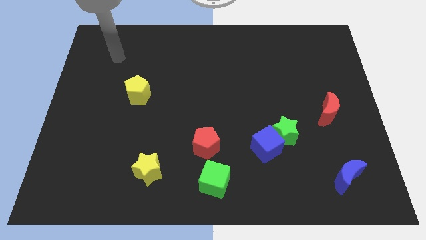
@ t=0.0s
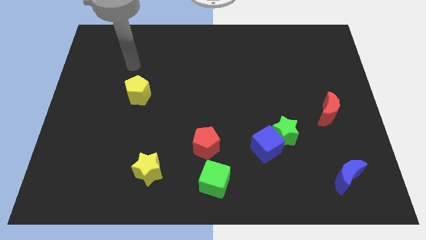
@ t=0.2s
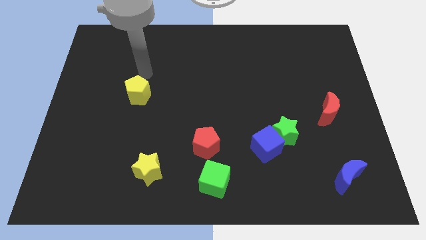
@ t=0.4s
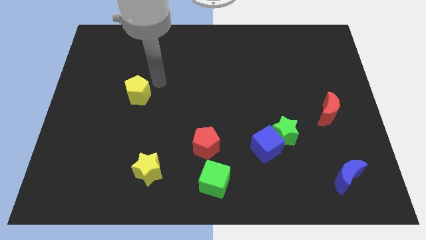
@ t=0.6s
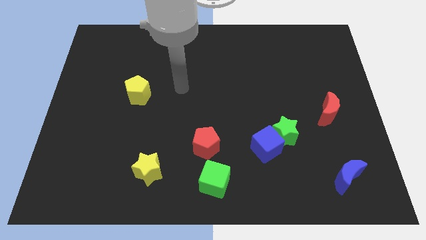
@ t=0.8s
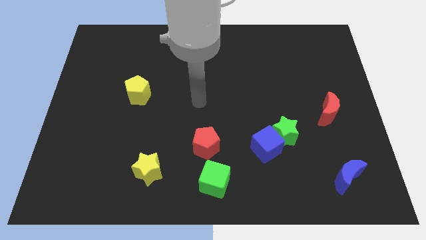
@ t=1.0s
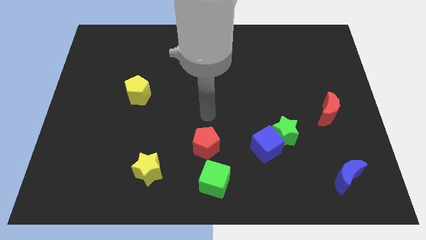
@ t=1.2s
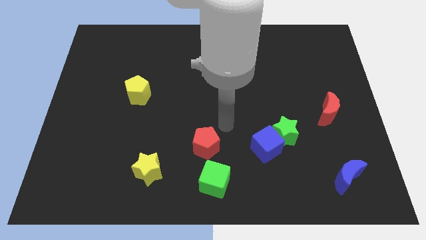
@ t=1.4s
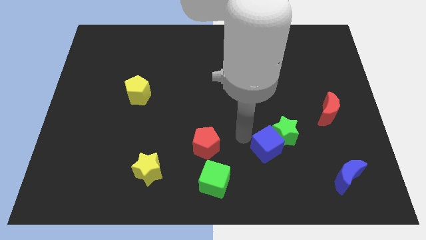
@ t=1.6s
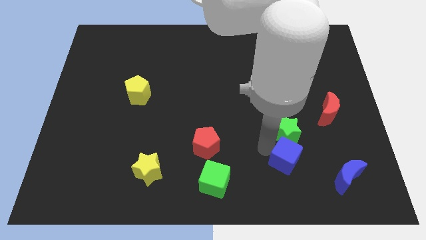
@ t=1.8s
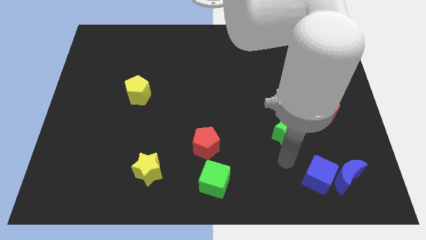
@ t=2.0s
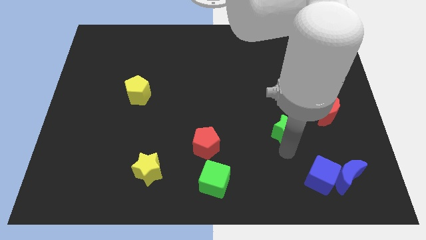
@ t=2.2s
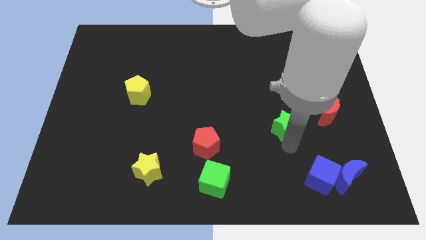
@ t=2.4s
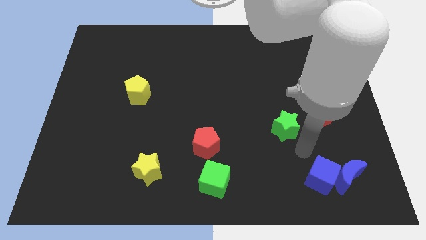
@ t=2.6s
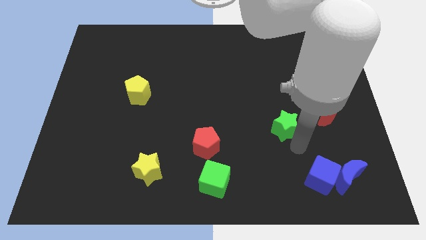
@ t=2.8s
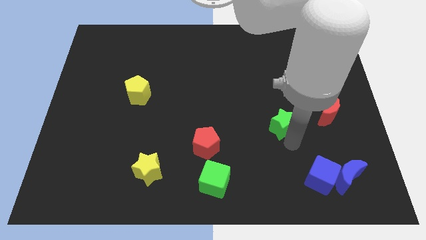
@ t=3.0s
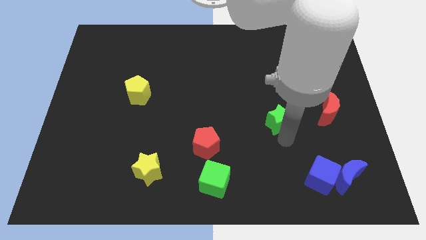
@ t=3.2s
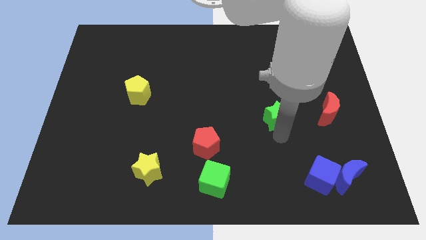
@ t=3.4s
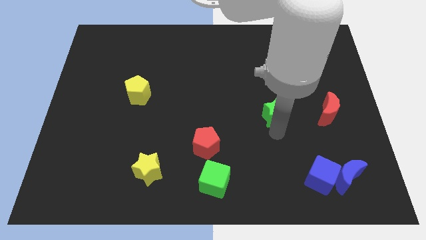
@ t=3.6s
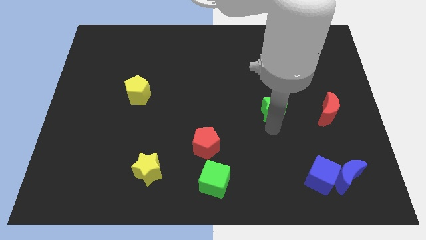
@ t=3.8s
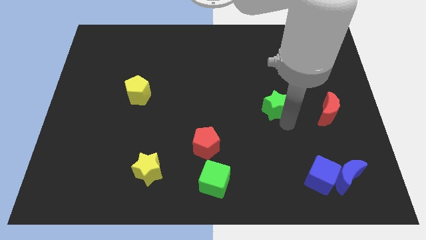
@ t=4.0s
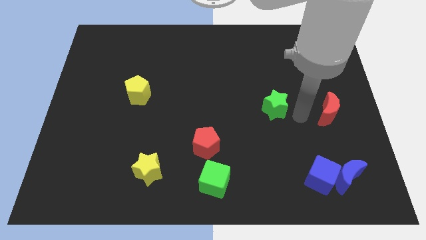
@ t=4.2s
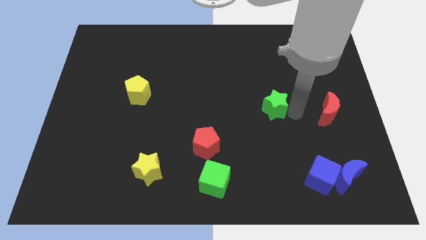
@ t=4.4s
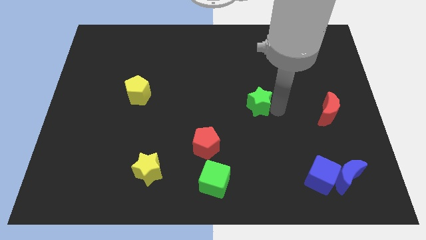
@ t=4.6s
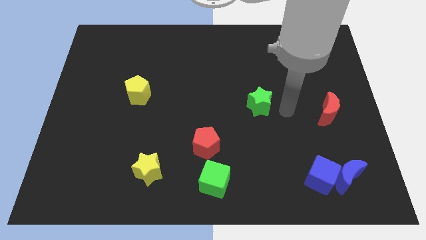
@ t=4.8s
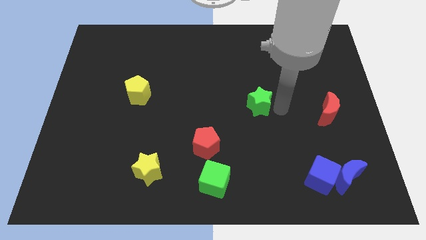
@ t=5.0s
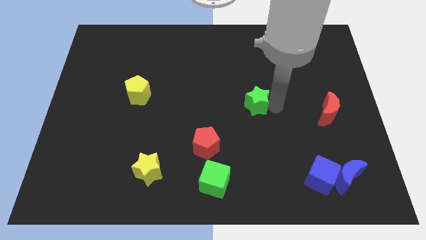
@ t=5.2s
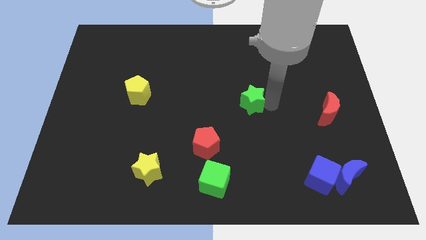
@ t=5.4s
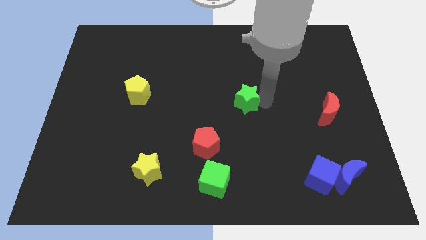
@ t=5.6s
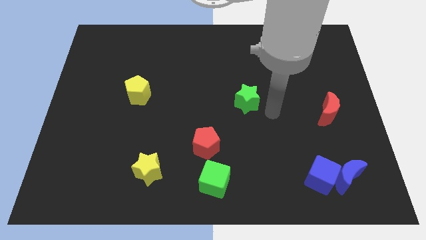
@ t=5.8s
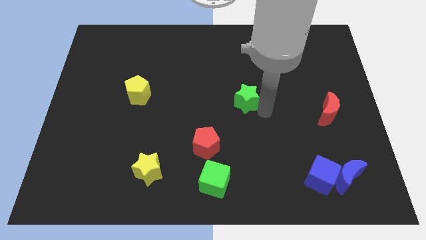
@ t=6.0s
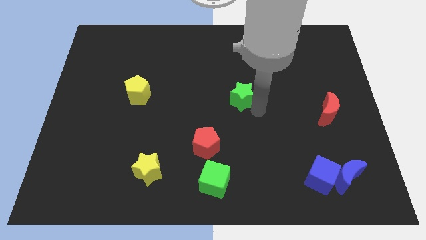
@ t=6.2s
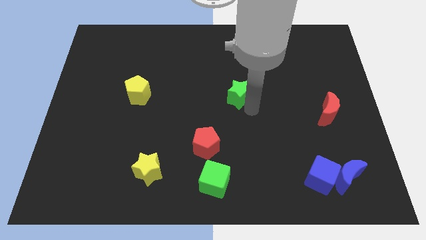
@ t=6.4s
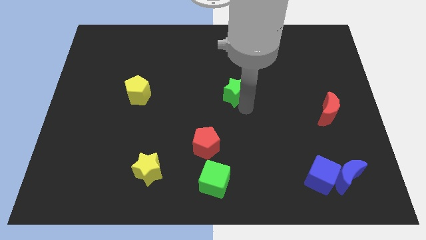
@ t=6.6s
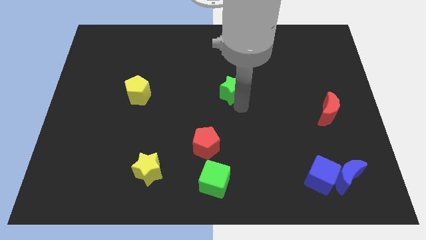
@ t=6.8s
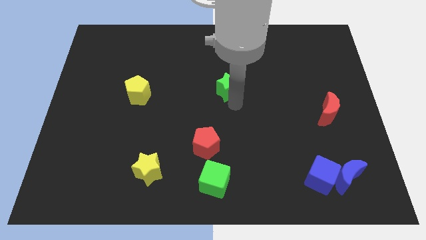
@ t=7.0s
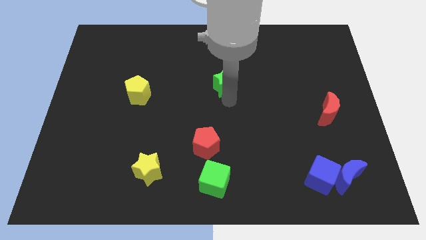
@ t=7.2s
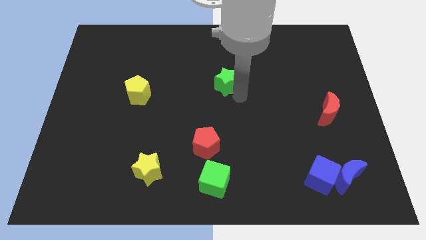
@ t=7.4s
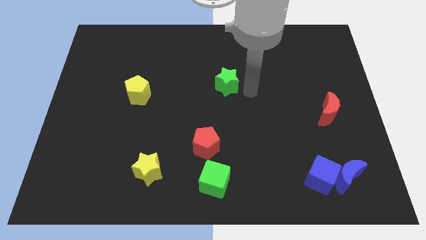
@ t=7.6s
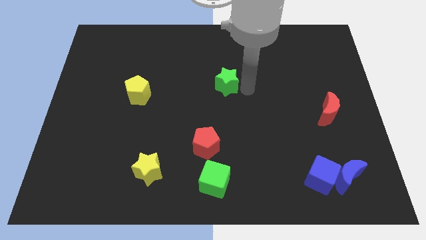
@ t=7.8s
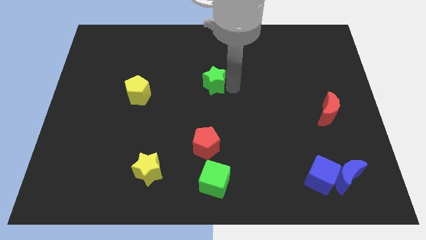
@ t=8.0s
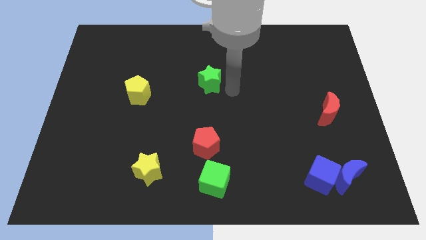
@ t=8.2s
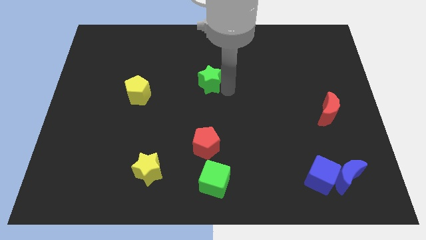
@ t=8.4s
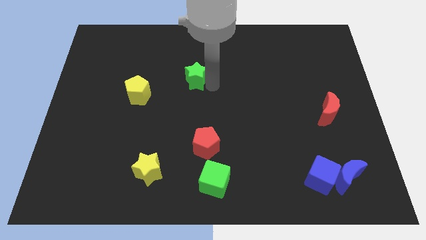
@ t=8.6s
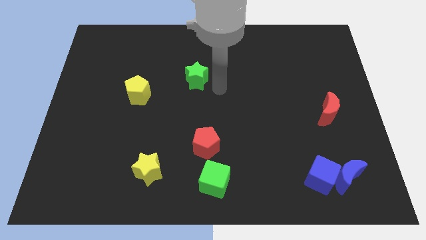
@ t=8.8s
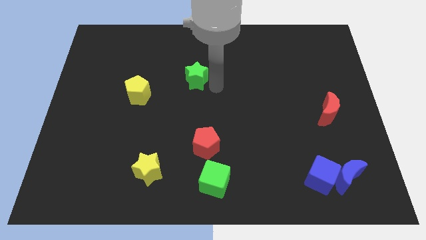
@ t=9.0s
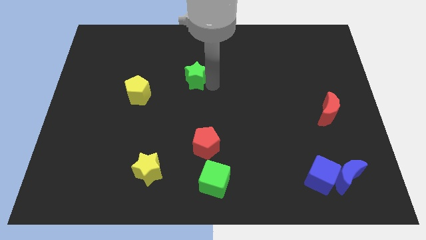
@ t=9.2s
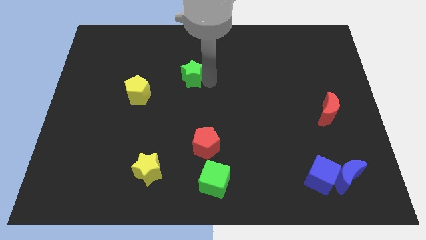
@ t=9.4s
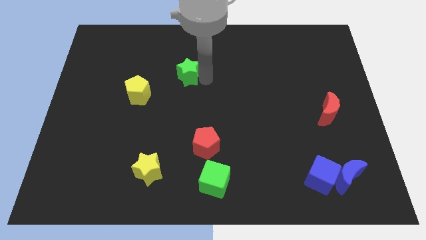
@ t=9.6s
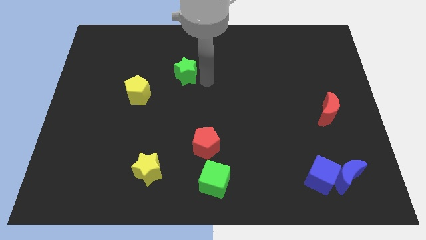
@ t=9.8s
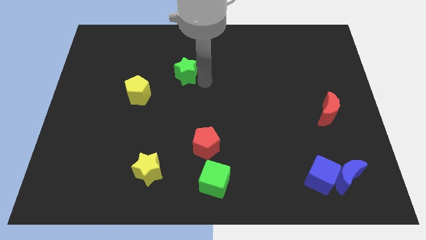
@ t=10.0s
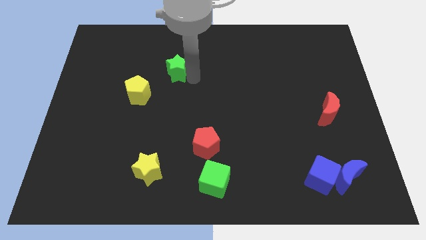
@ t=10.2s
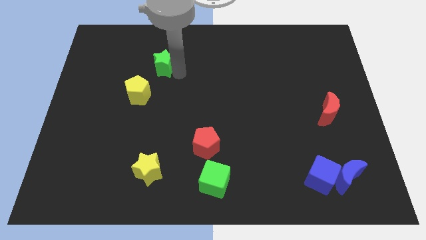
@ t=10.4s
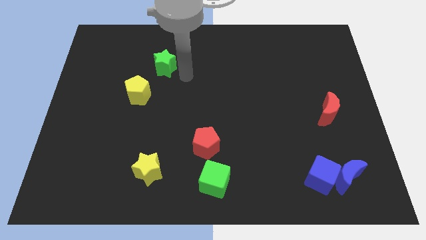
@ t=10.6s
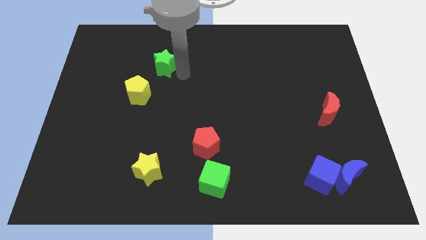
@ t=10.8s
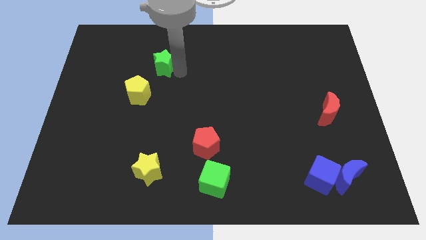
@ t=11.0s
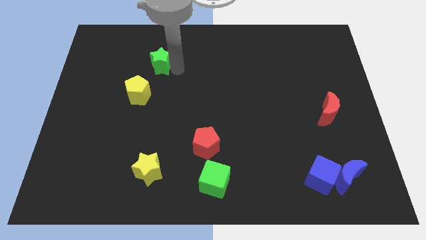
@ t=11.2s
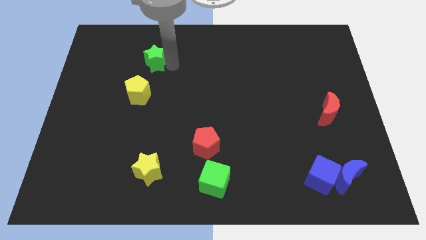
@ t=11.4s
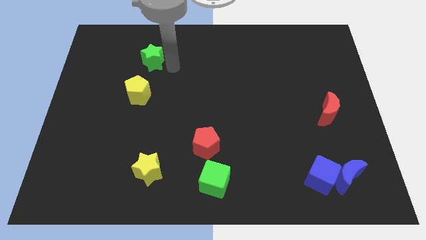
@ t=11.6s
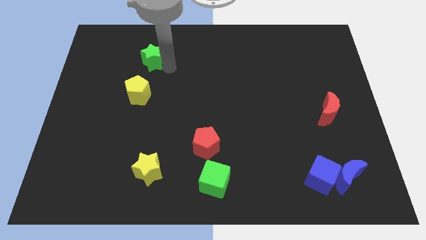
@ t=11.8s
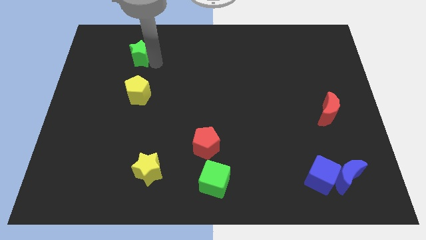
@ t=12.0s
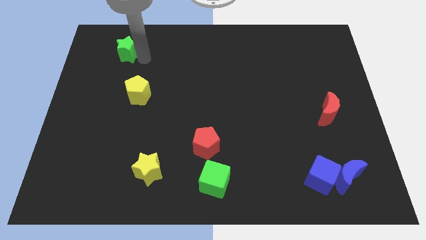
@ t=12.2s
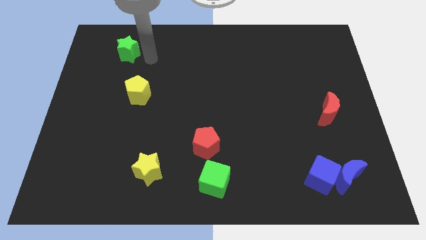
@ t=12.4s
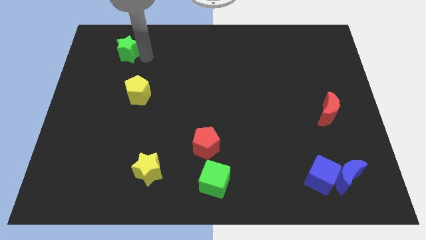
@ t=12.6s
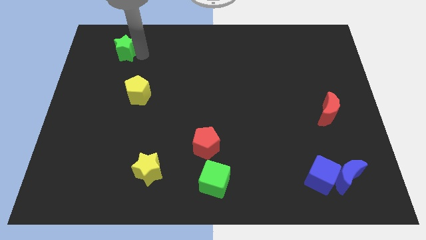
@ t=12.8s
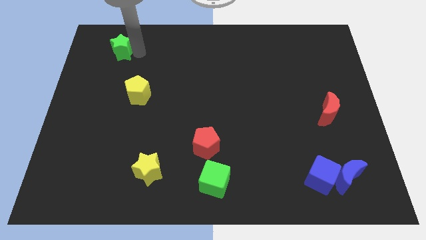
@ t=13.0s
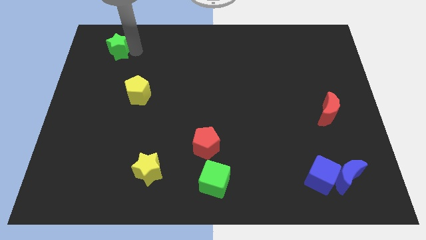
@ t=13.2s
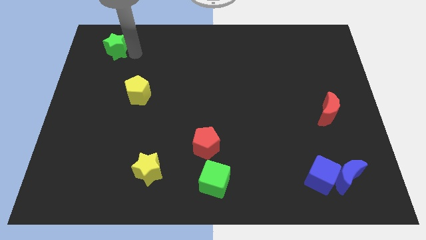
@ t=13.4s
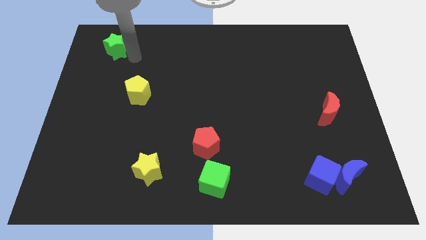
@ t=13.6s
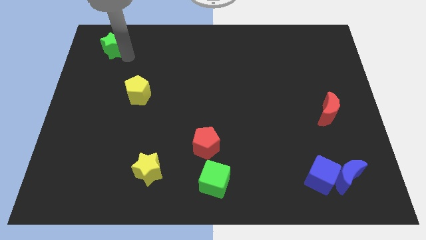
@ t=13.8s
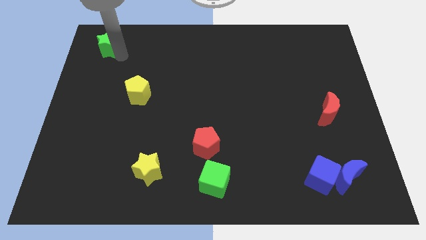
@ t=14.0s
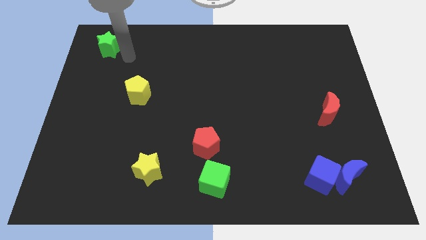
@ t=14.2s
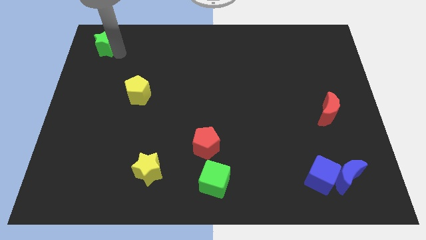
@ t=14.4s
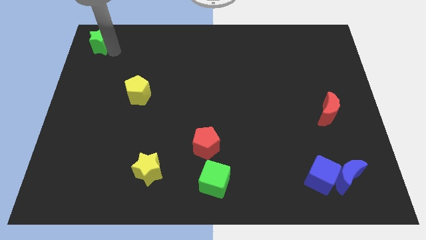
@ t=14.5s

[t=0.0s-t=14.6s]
slide the green star to the top left corner
